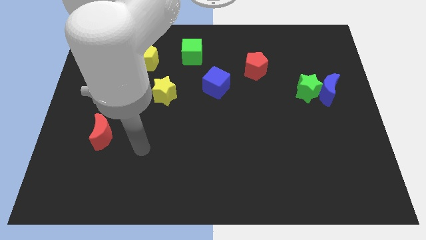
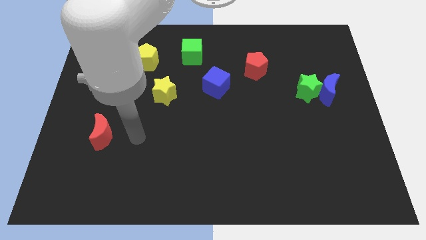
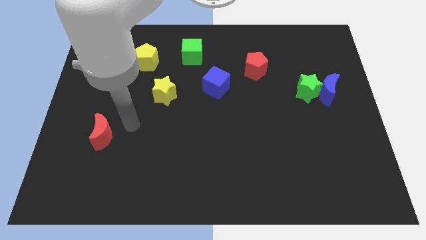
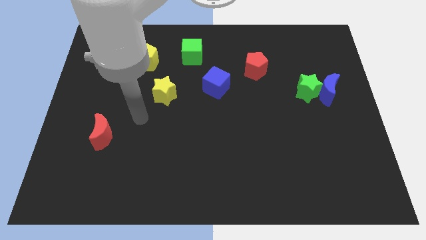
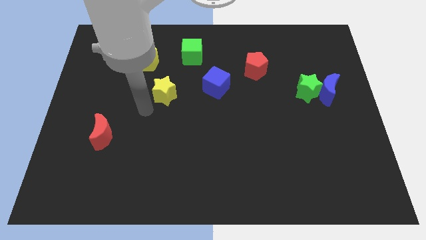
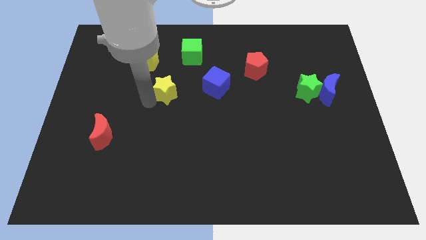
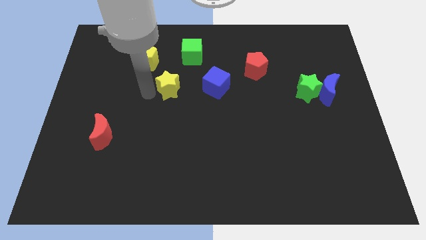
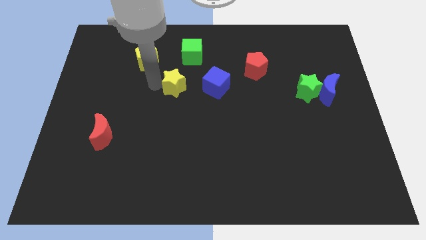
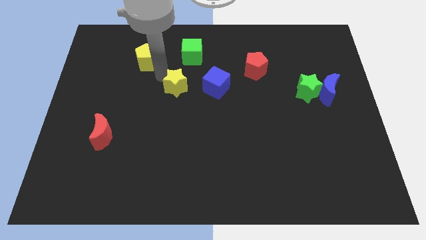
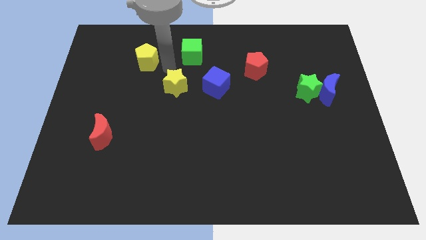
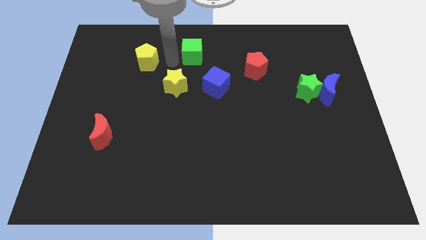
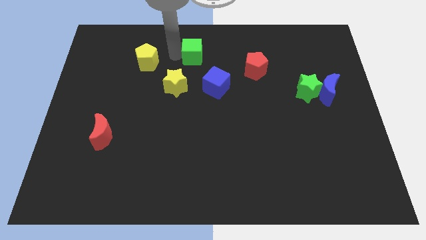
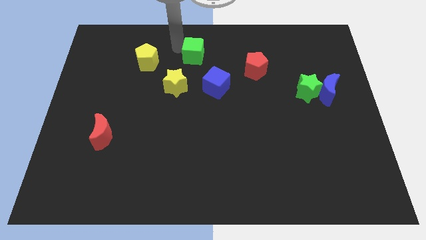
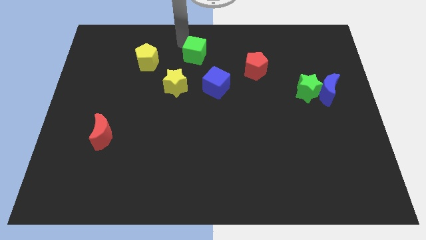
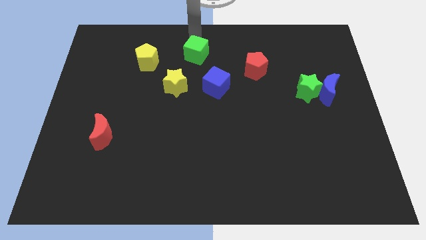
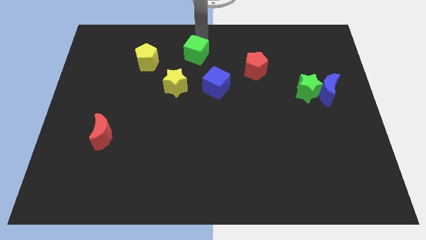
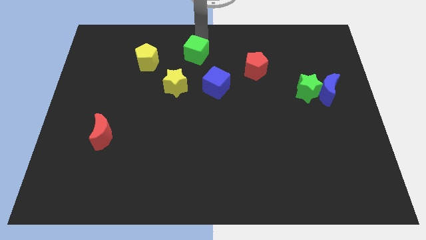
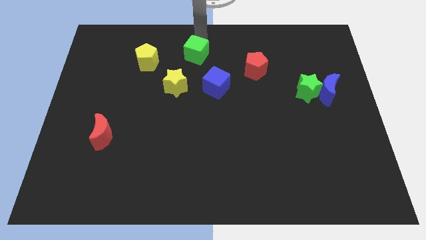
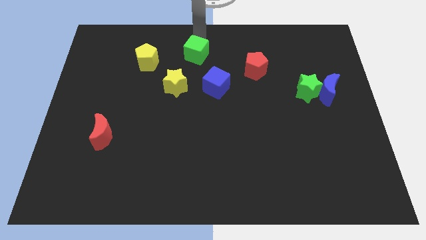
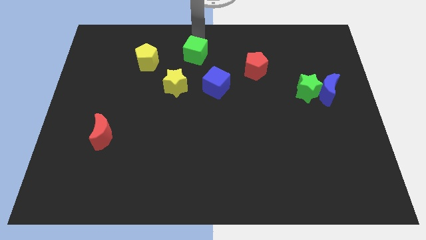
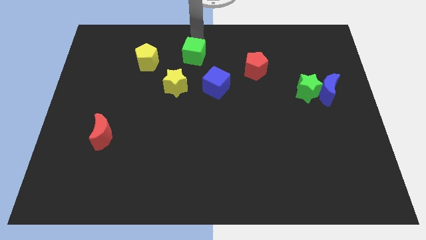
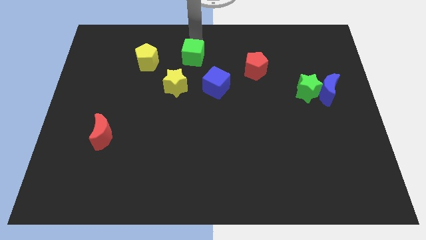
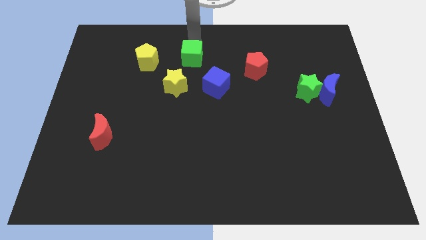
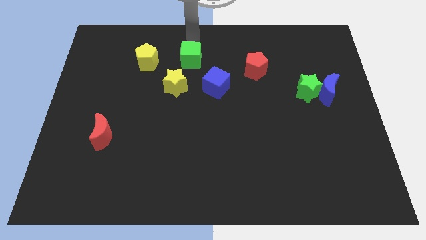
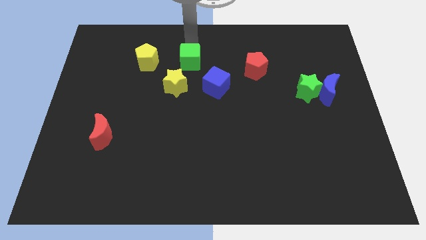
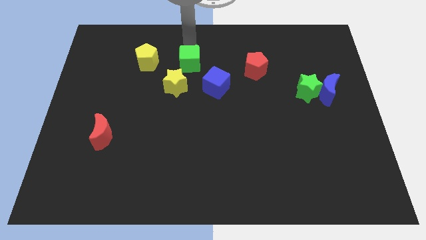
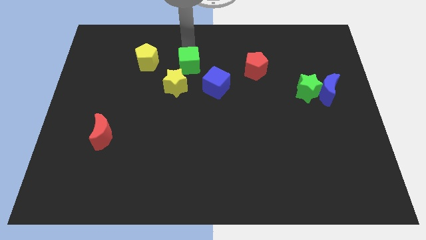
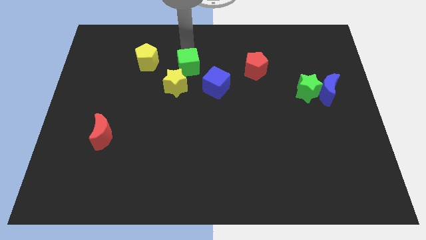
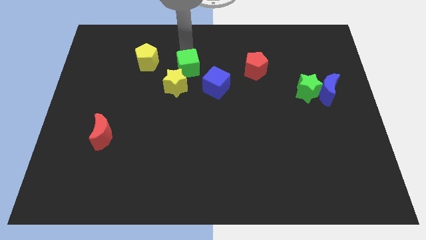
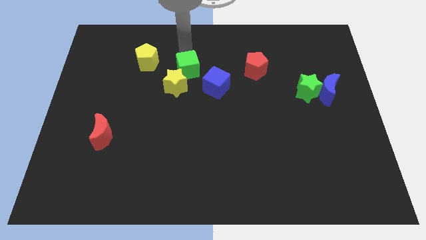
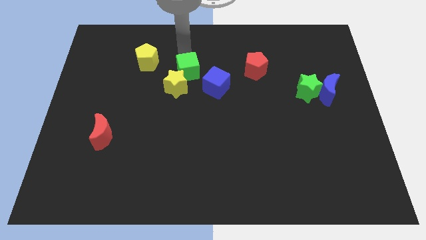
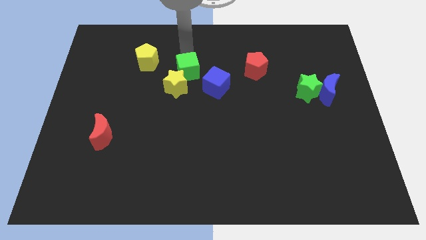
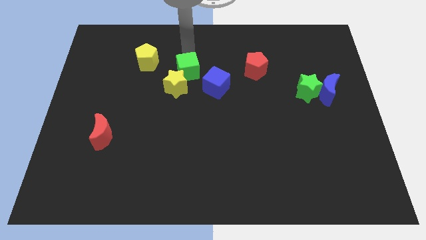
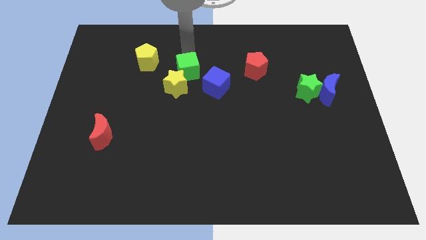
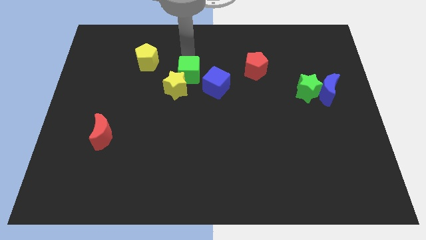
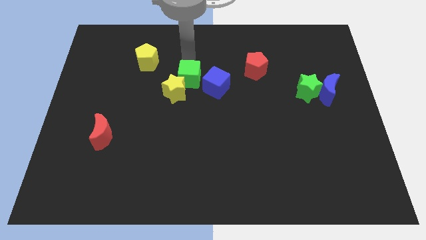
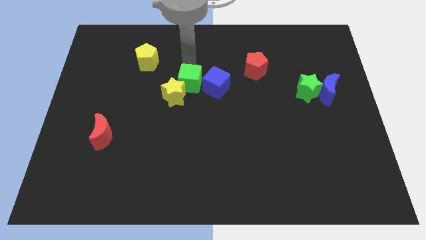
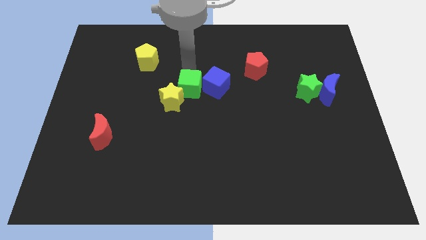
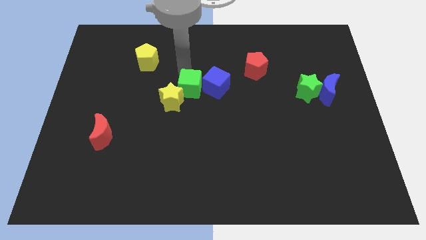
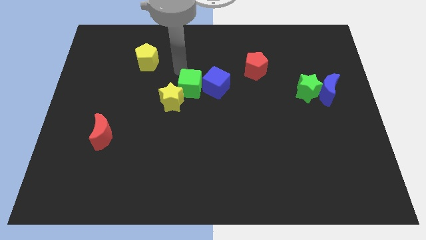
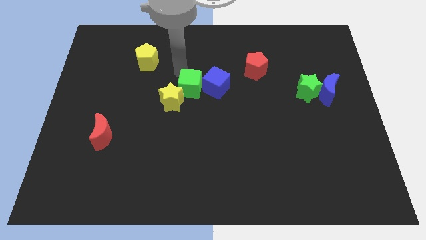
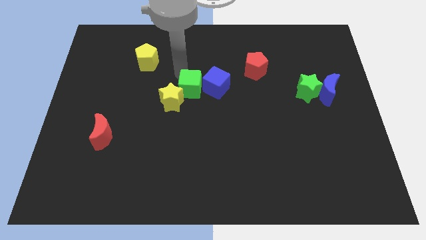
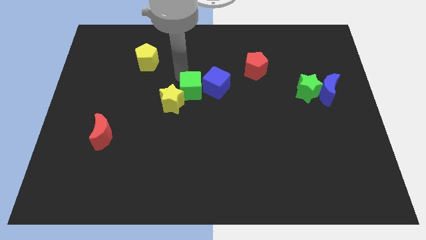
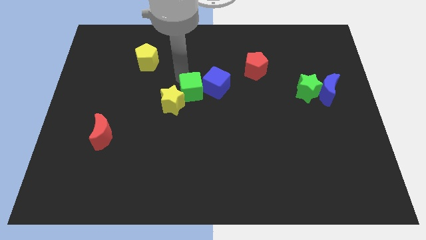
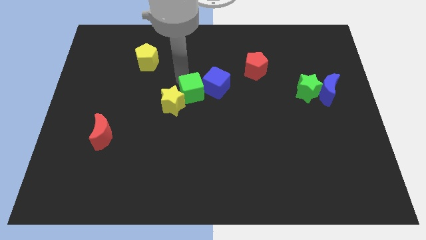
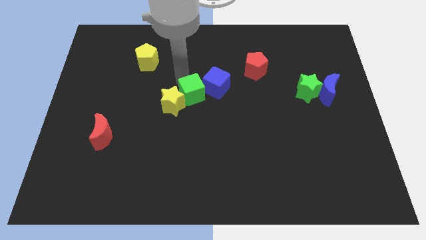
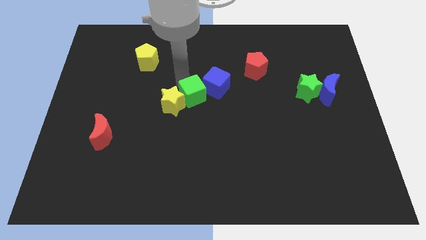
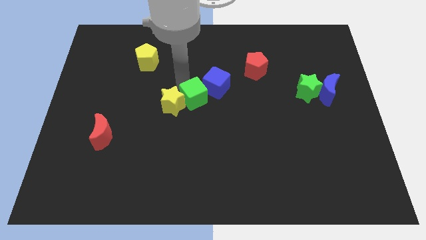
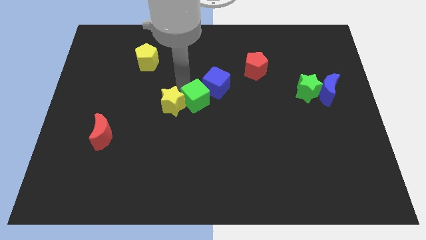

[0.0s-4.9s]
move the green cube below the blue cube

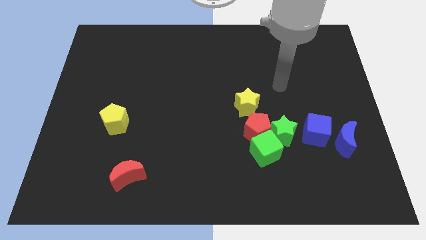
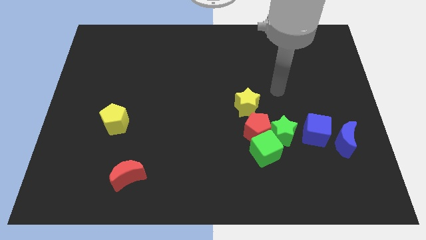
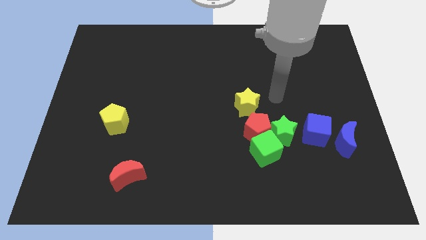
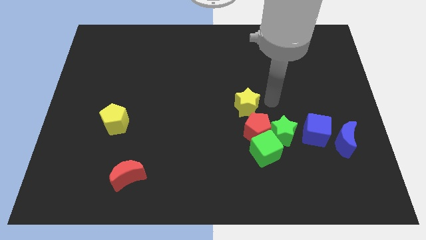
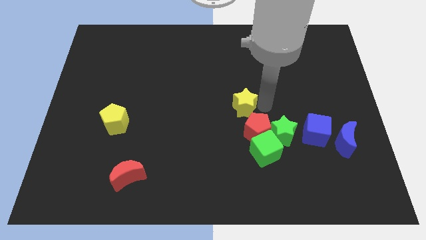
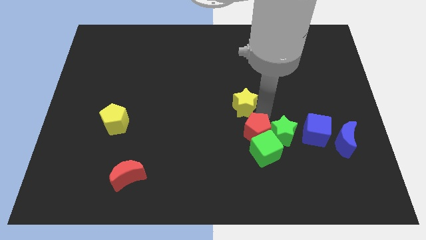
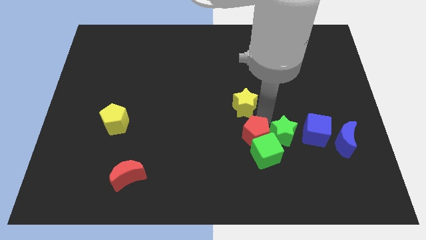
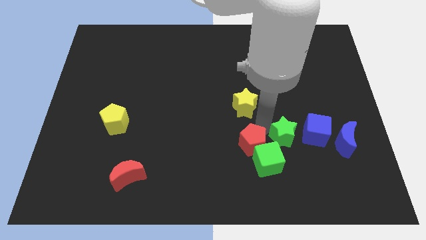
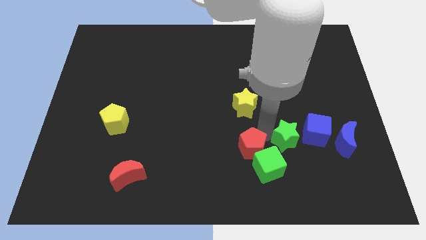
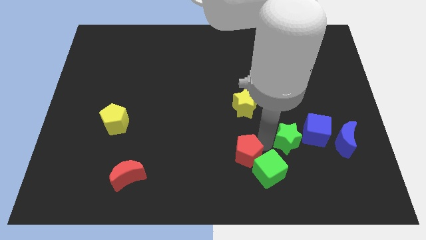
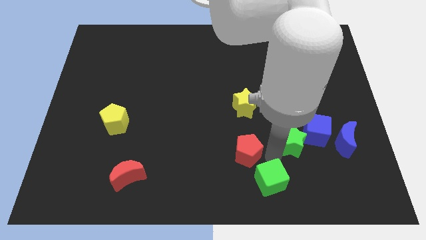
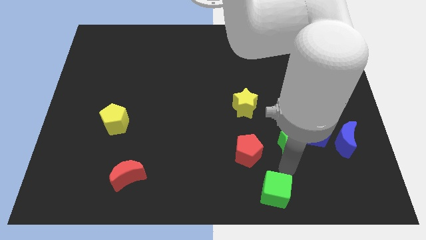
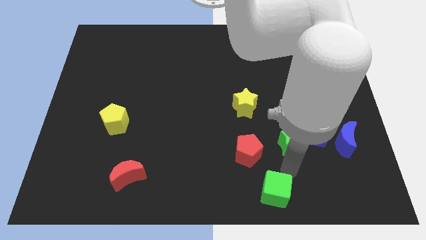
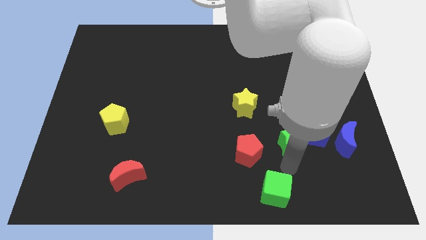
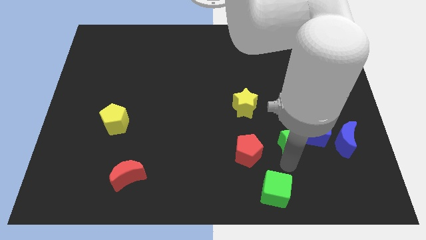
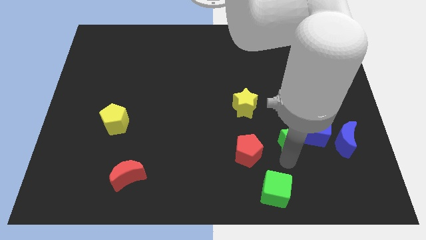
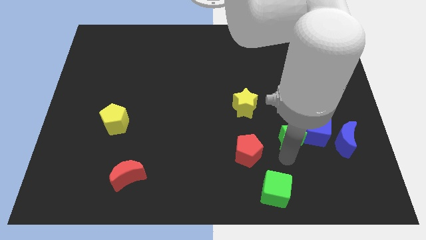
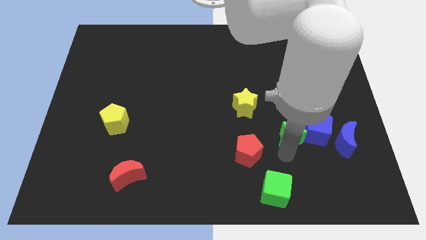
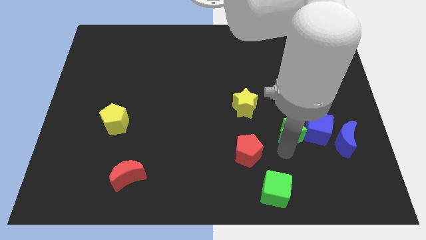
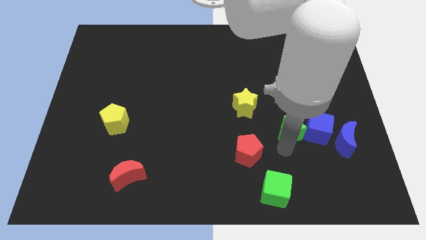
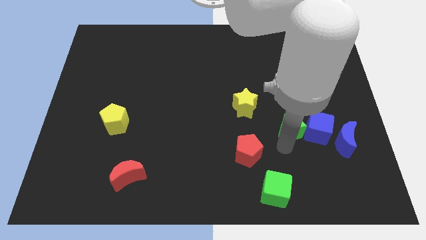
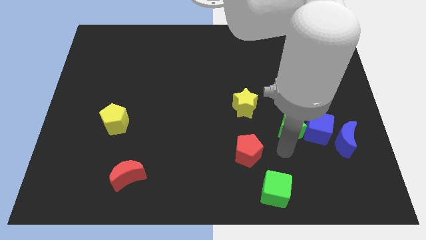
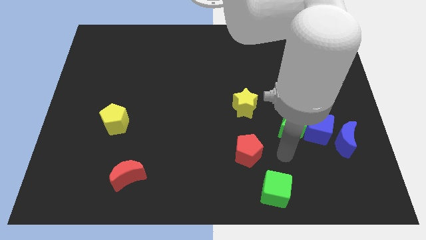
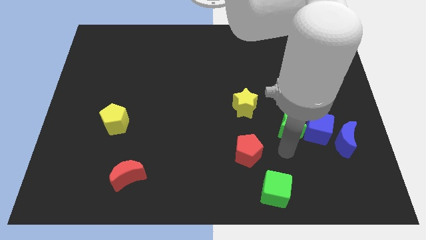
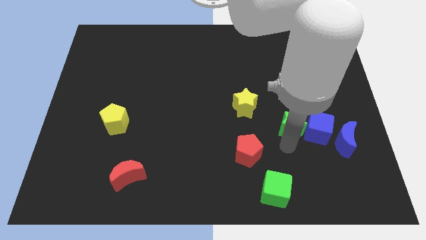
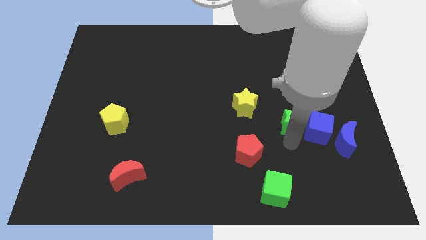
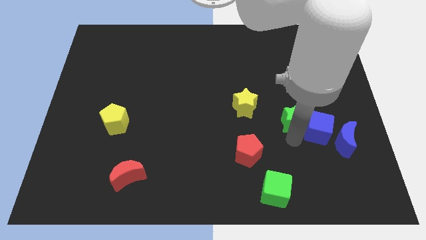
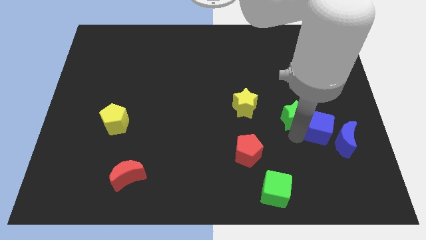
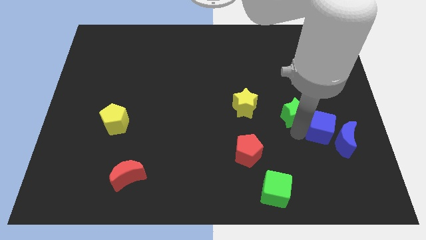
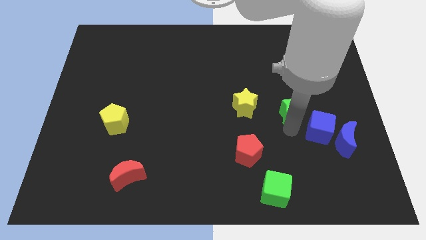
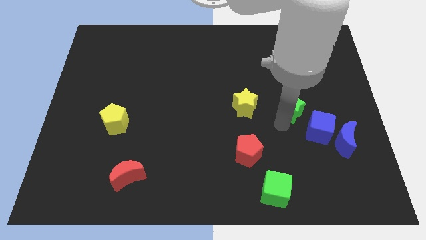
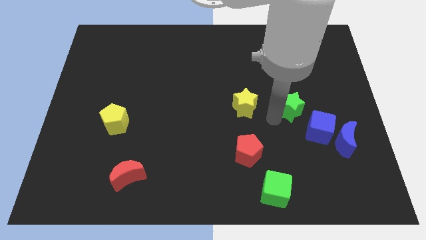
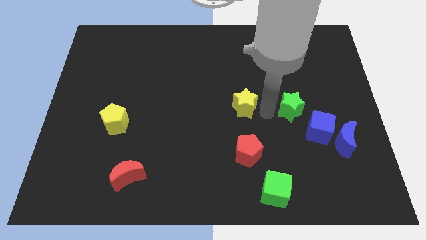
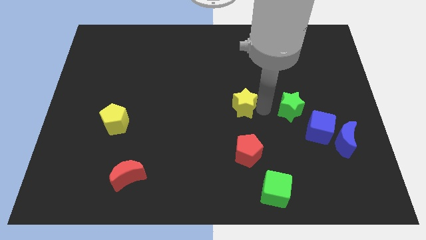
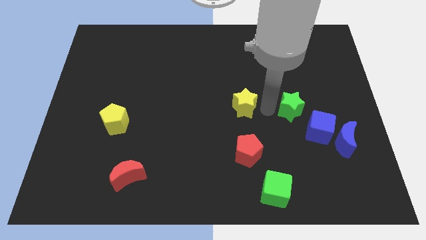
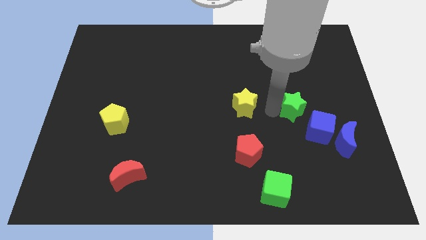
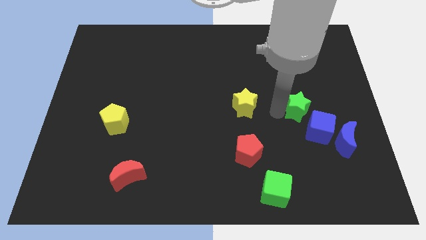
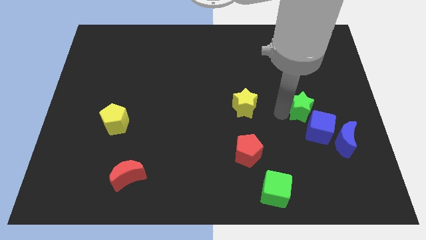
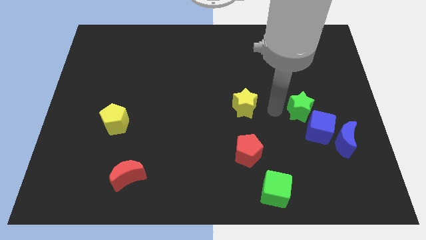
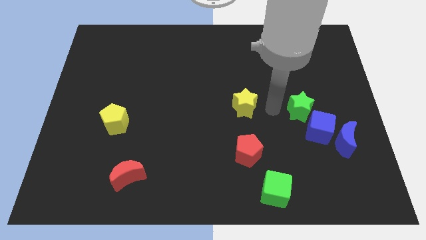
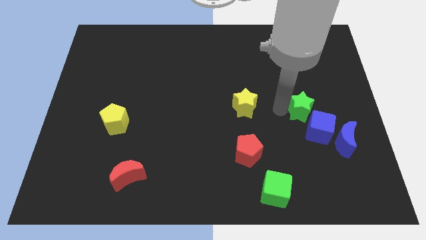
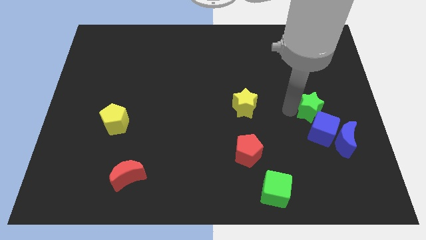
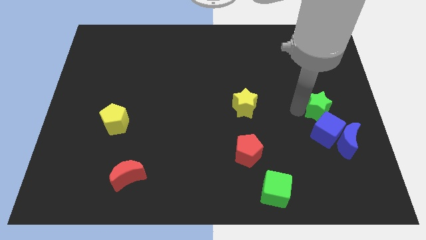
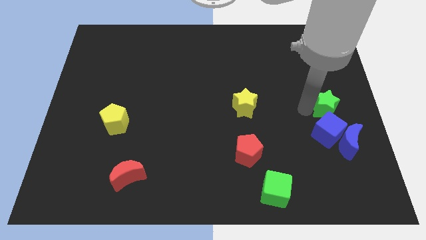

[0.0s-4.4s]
move the green star to the top right side of the blue cube
